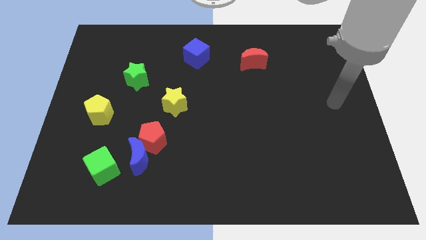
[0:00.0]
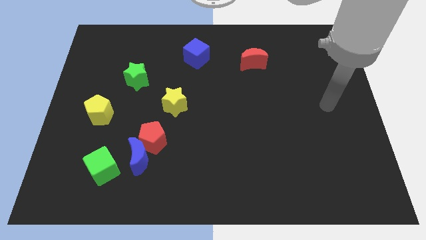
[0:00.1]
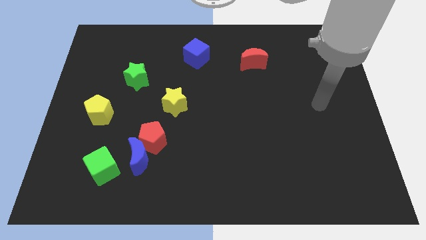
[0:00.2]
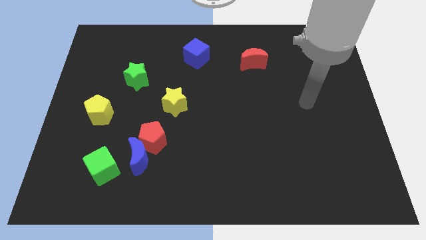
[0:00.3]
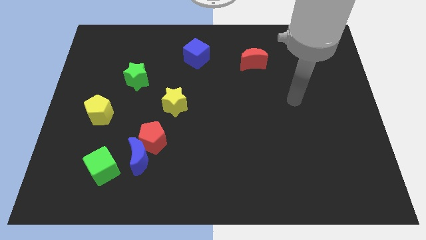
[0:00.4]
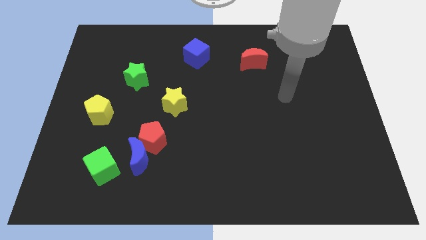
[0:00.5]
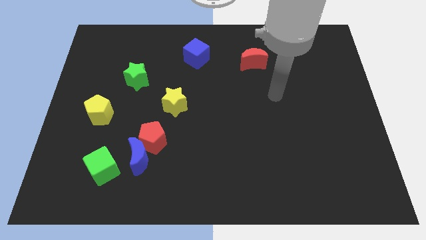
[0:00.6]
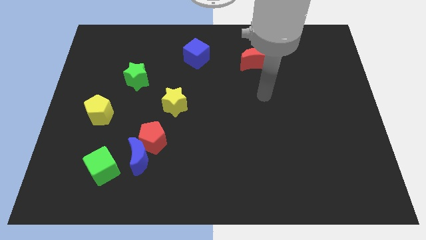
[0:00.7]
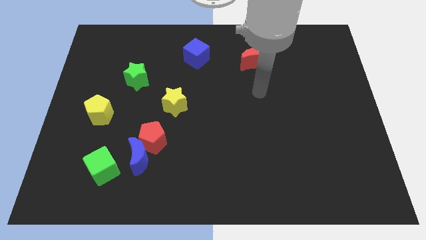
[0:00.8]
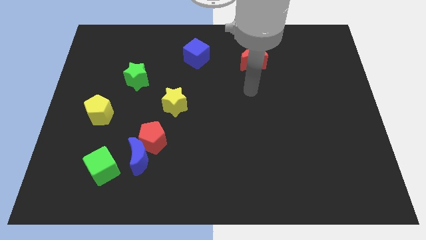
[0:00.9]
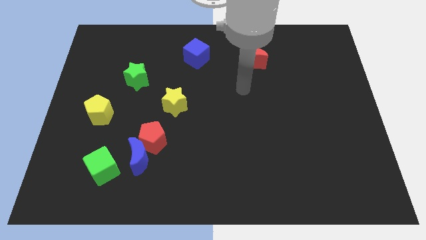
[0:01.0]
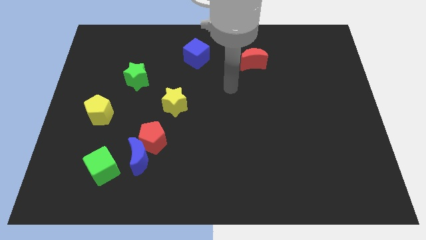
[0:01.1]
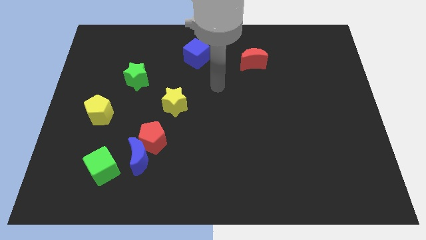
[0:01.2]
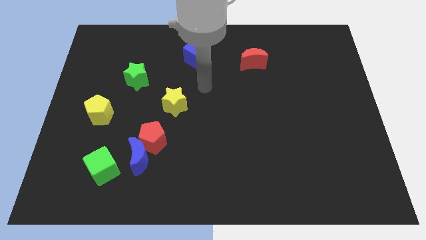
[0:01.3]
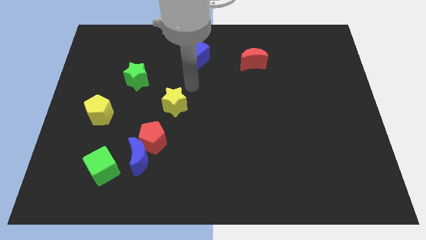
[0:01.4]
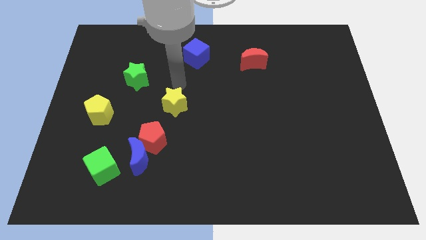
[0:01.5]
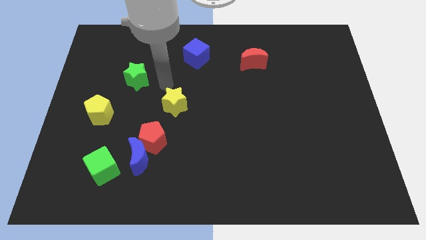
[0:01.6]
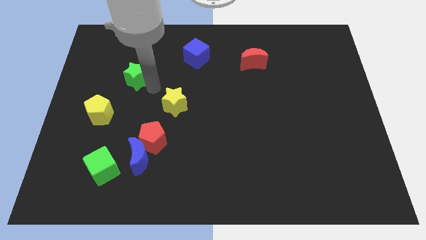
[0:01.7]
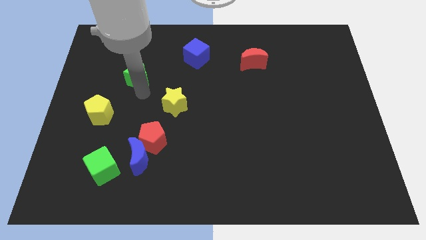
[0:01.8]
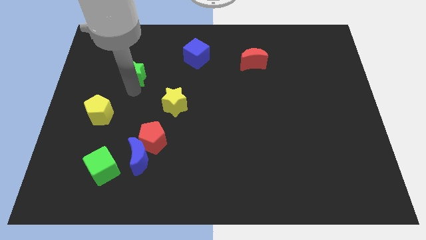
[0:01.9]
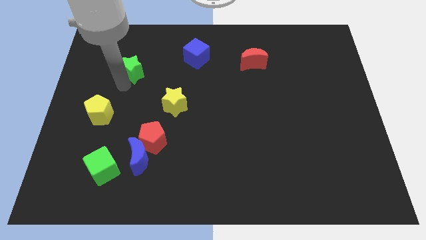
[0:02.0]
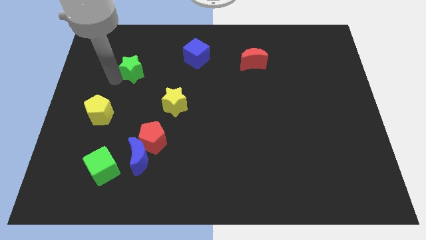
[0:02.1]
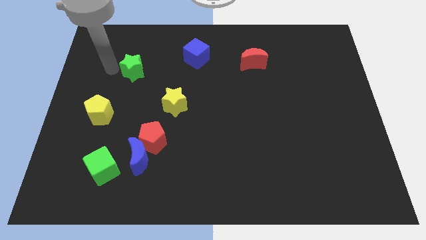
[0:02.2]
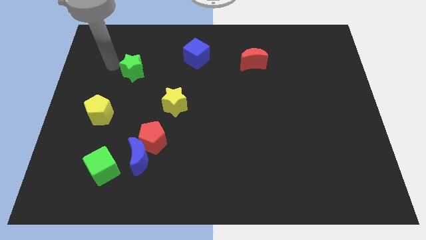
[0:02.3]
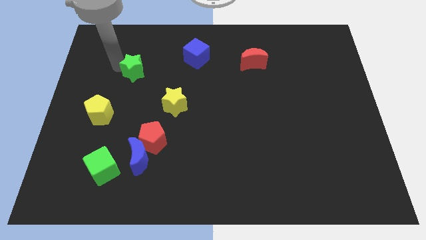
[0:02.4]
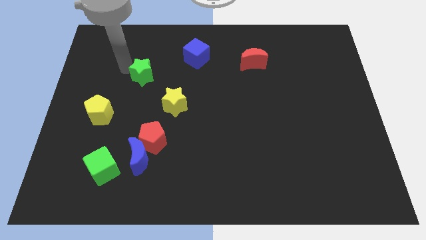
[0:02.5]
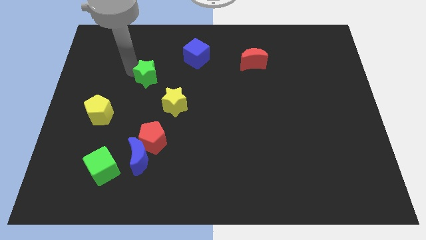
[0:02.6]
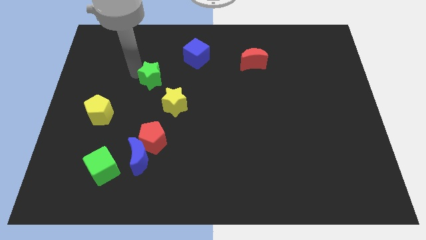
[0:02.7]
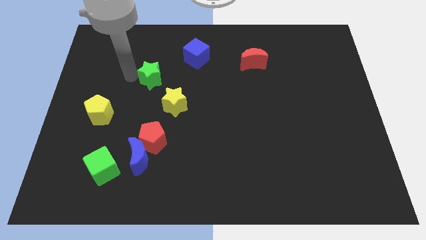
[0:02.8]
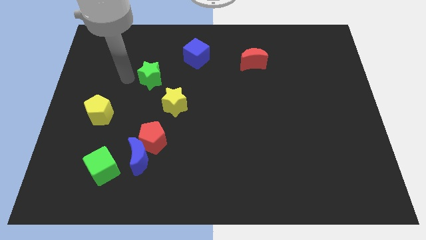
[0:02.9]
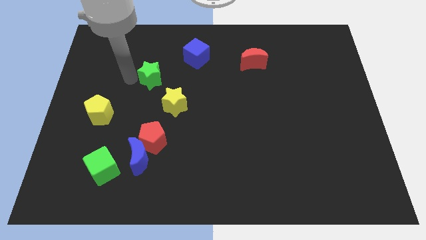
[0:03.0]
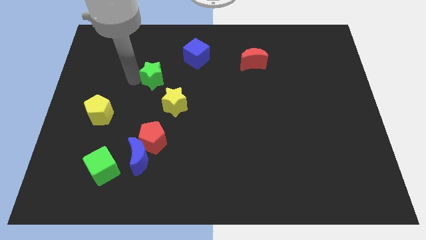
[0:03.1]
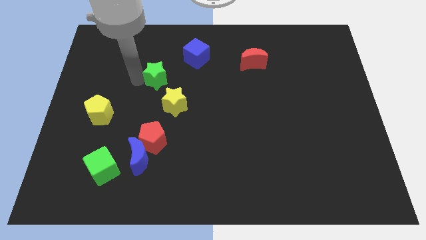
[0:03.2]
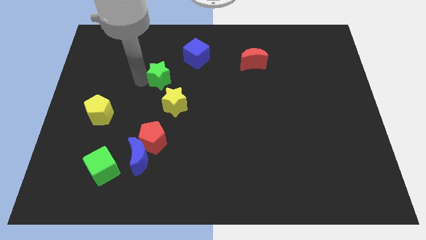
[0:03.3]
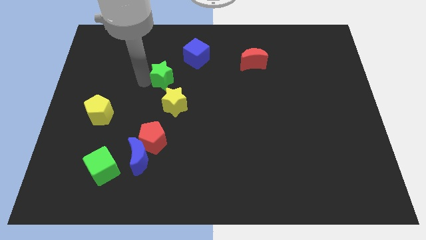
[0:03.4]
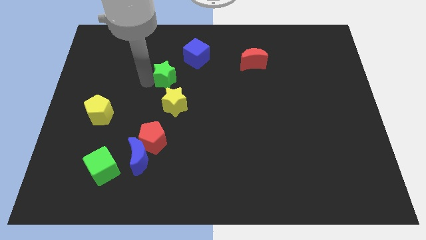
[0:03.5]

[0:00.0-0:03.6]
slightly push the green star right

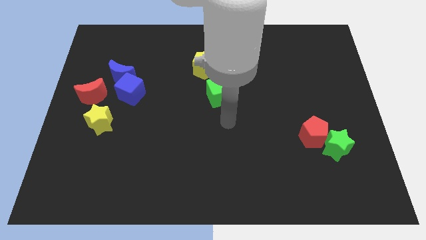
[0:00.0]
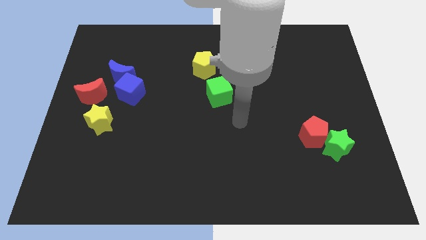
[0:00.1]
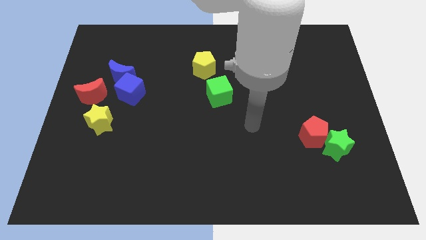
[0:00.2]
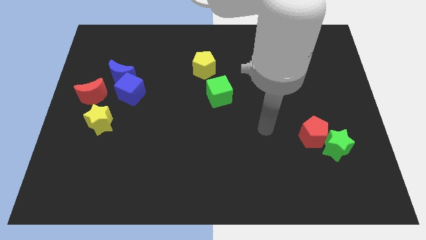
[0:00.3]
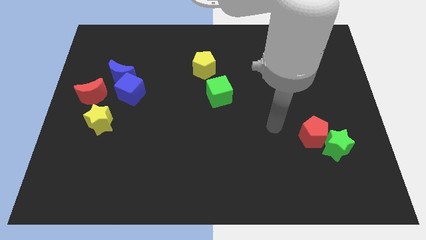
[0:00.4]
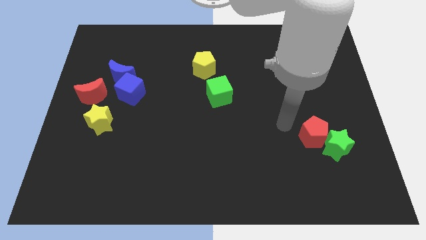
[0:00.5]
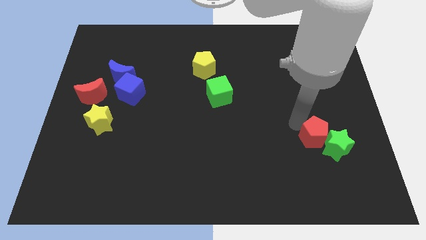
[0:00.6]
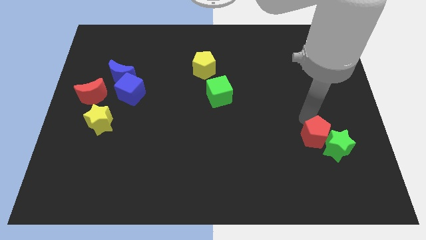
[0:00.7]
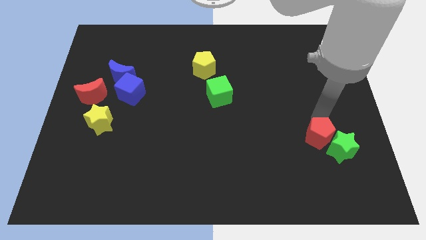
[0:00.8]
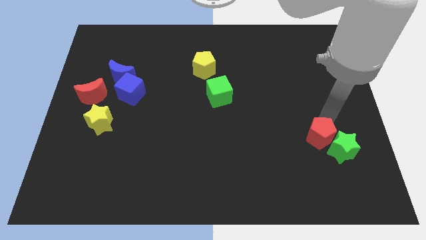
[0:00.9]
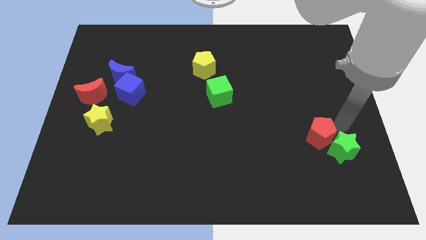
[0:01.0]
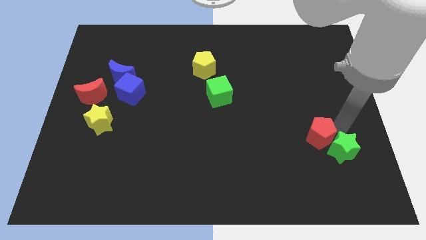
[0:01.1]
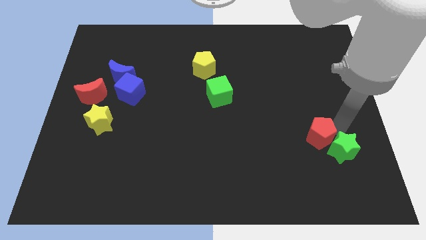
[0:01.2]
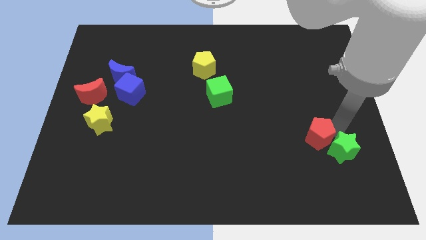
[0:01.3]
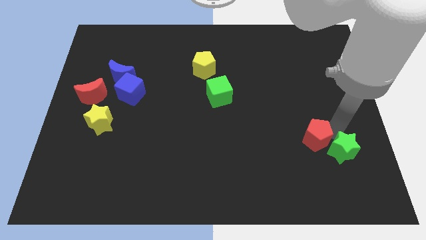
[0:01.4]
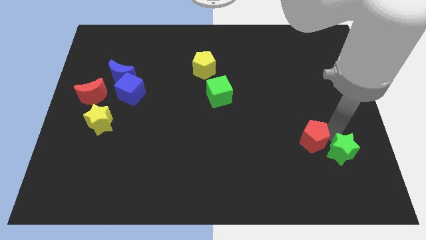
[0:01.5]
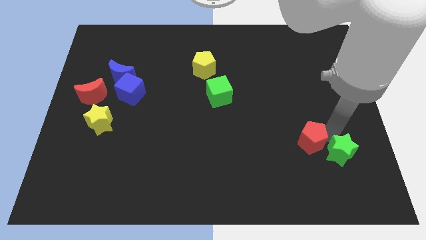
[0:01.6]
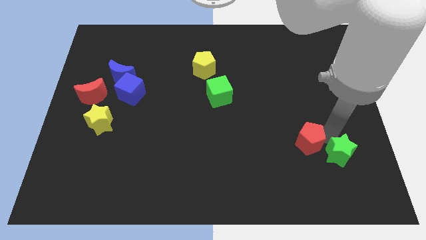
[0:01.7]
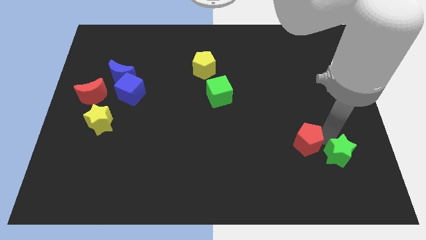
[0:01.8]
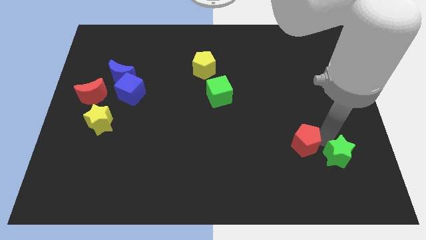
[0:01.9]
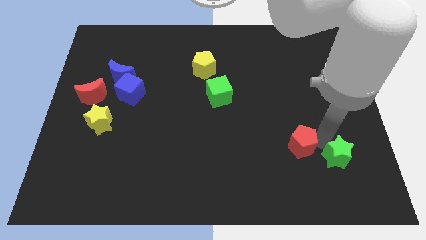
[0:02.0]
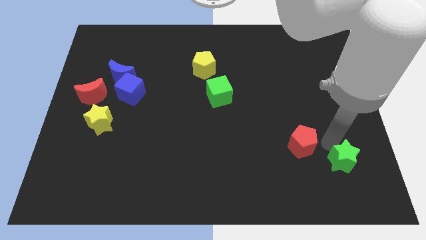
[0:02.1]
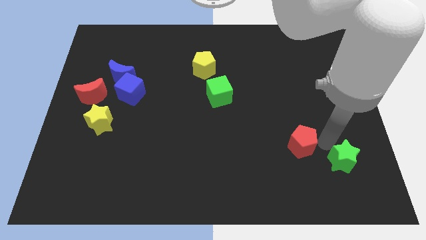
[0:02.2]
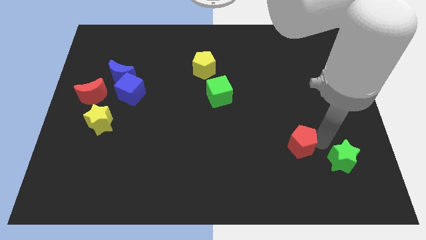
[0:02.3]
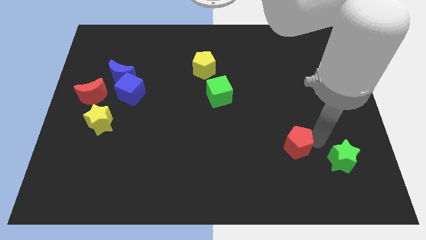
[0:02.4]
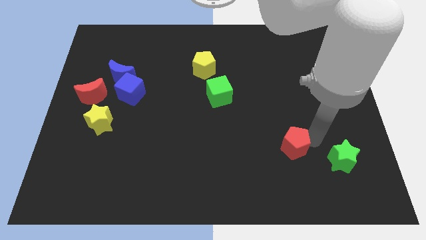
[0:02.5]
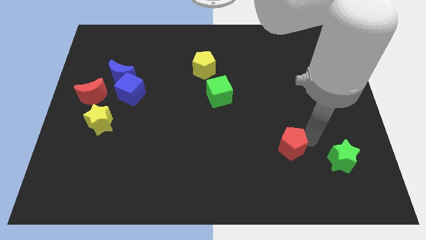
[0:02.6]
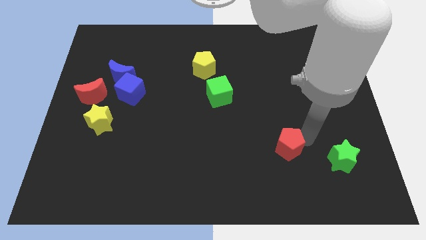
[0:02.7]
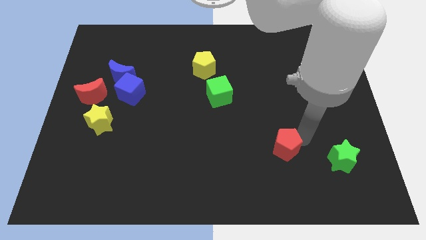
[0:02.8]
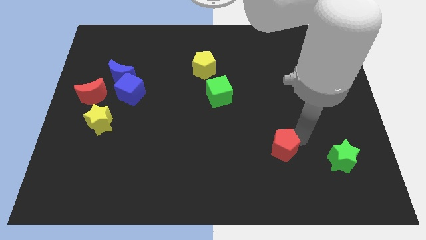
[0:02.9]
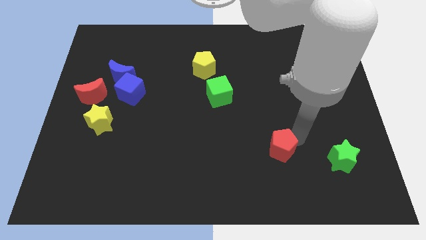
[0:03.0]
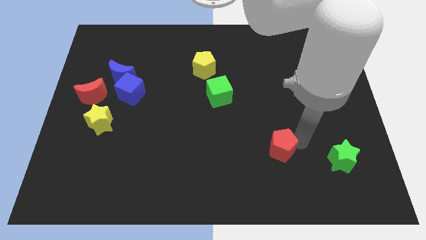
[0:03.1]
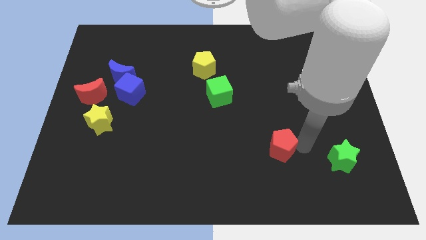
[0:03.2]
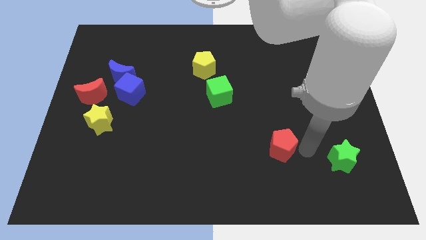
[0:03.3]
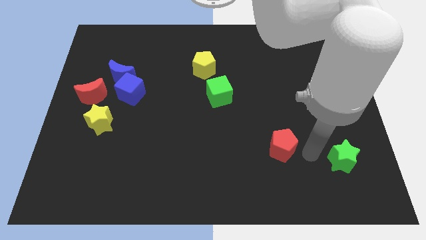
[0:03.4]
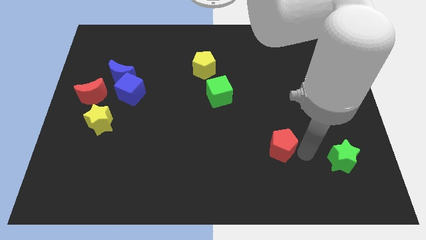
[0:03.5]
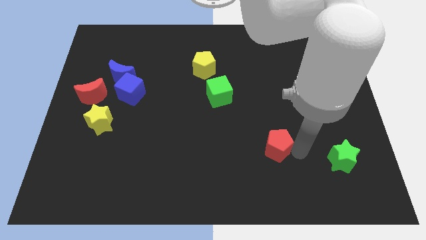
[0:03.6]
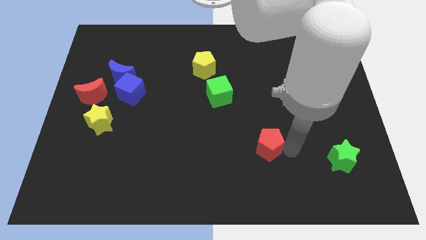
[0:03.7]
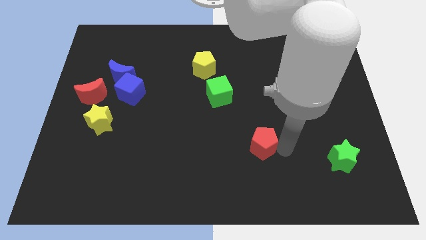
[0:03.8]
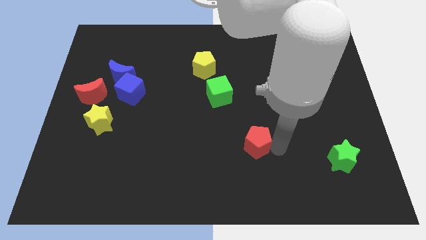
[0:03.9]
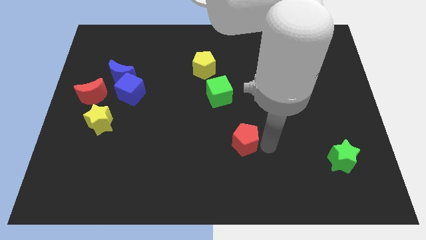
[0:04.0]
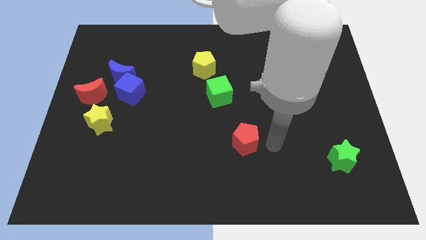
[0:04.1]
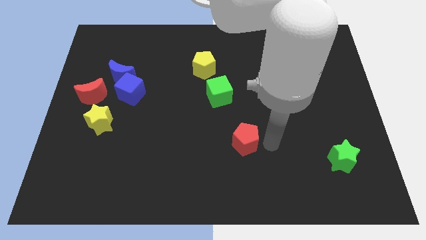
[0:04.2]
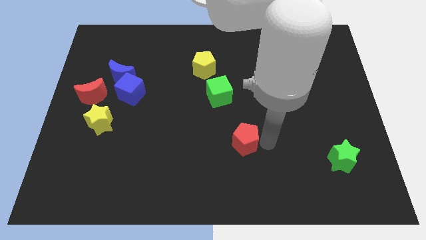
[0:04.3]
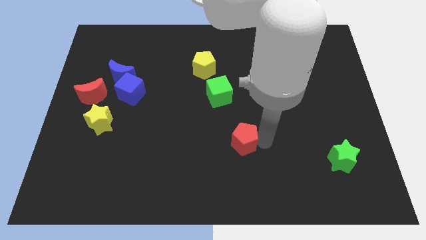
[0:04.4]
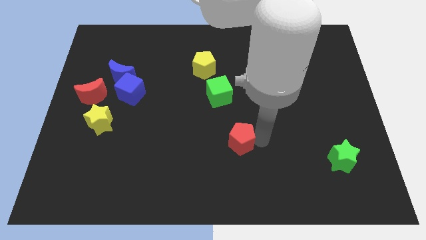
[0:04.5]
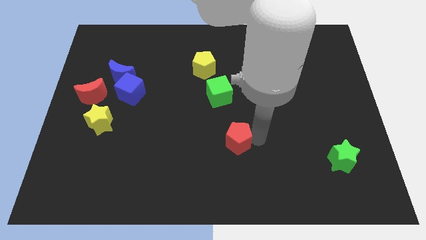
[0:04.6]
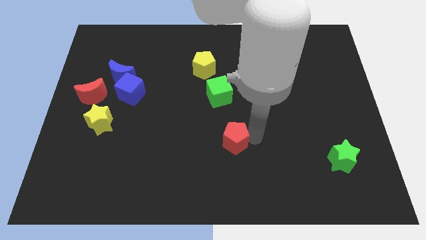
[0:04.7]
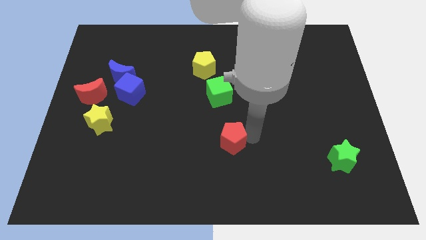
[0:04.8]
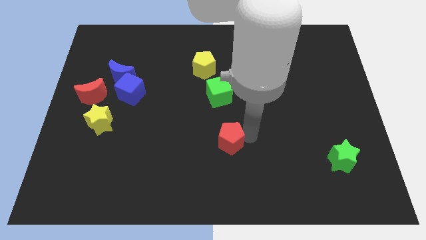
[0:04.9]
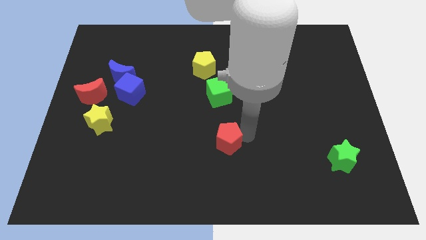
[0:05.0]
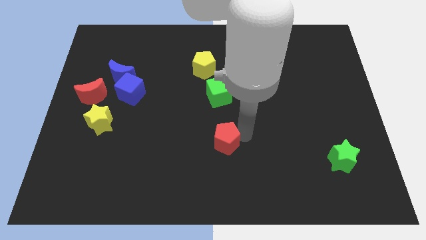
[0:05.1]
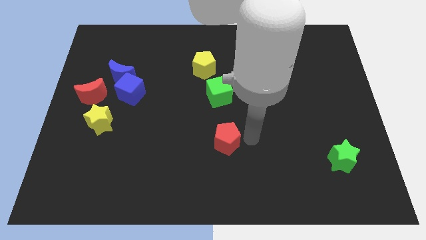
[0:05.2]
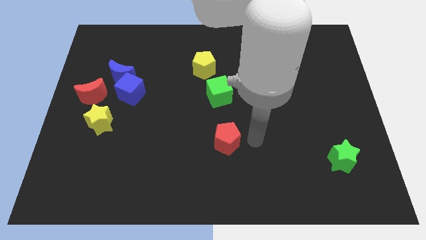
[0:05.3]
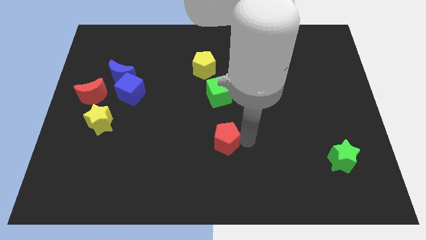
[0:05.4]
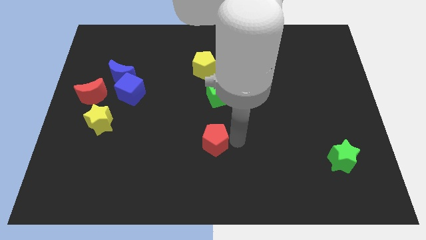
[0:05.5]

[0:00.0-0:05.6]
push the red pentagon left
